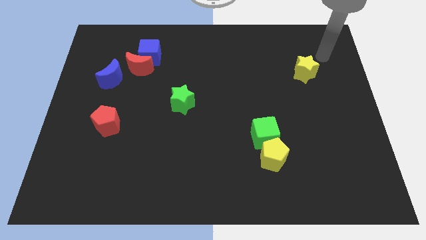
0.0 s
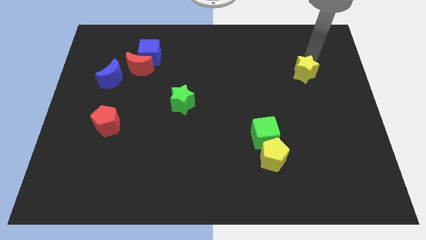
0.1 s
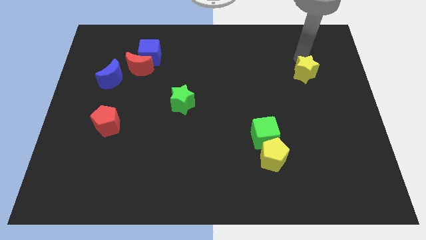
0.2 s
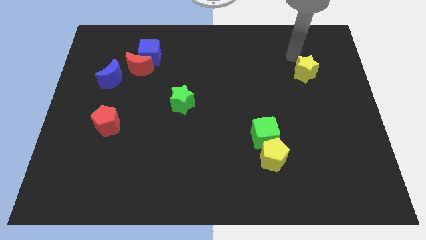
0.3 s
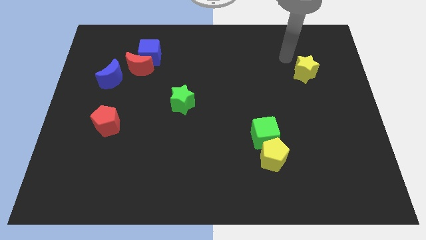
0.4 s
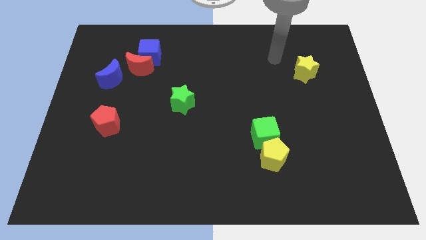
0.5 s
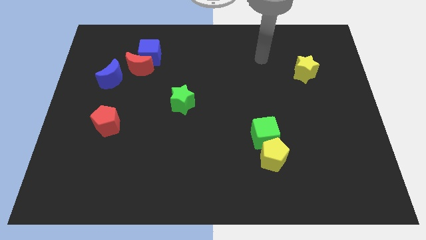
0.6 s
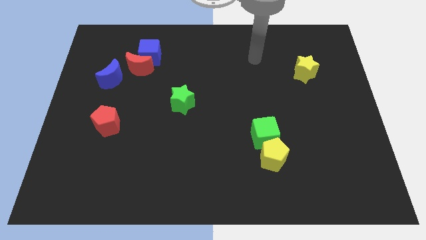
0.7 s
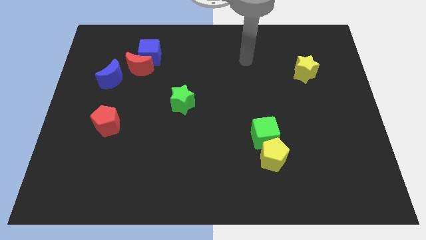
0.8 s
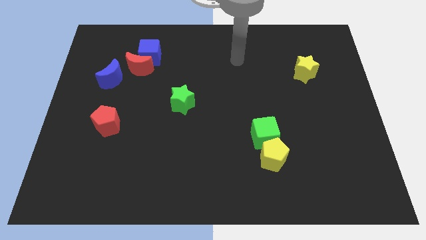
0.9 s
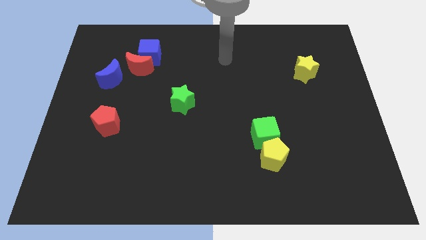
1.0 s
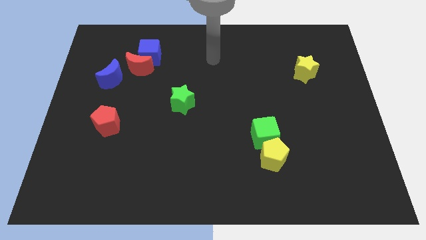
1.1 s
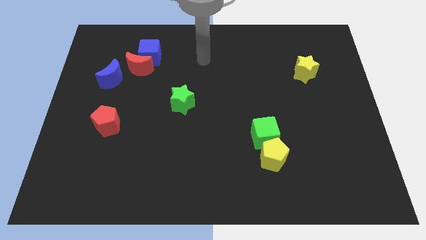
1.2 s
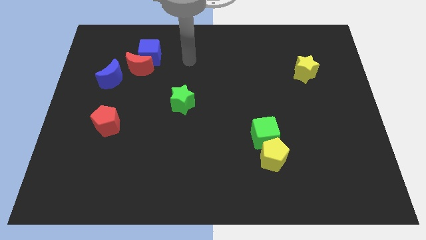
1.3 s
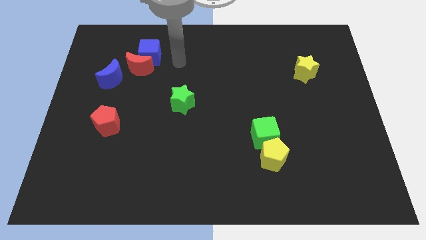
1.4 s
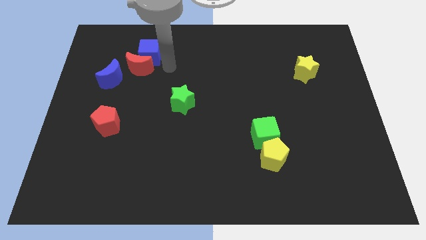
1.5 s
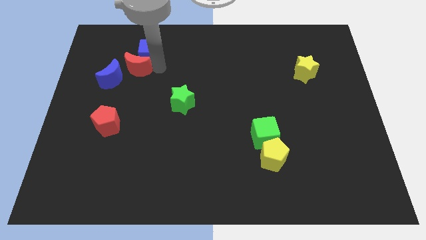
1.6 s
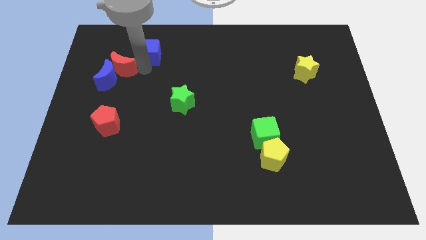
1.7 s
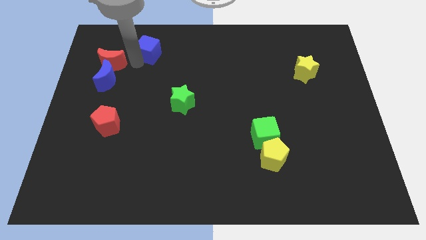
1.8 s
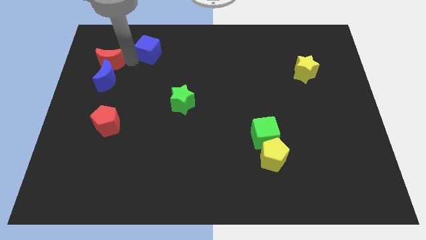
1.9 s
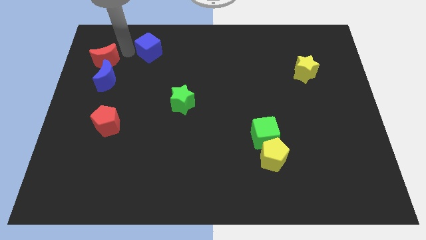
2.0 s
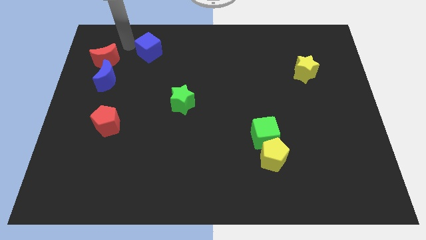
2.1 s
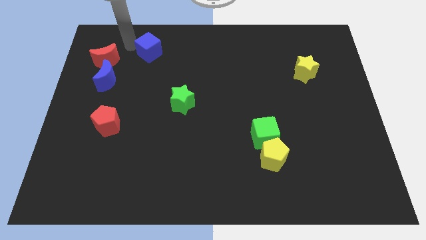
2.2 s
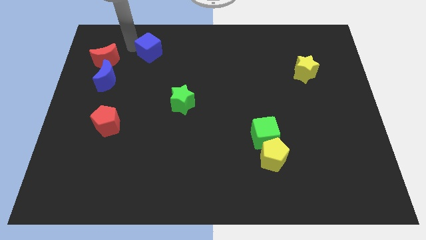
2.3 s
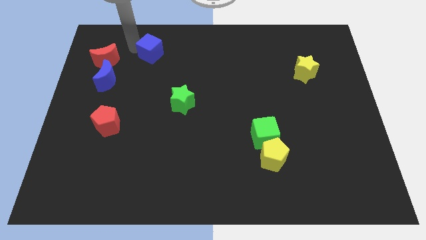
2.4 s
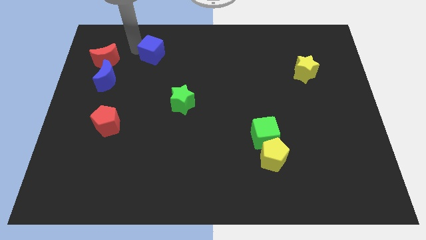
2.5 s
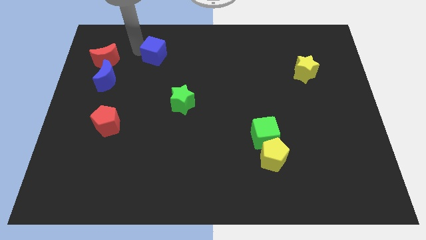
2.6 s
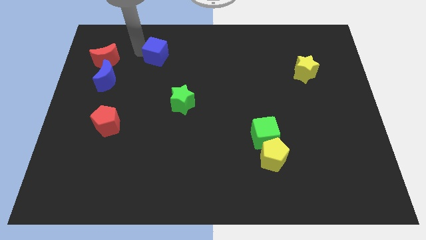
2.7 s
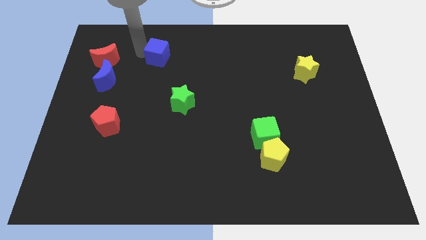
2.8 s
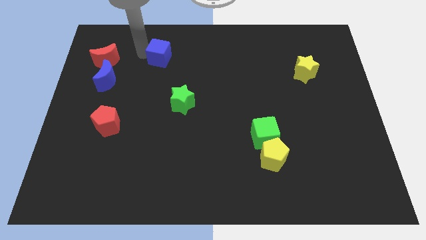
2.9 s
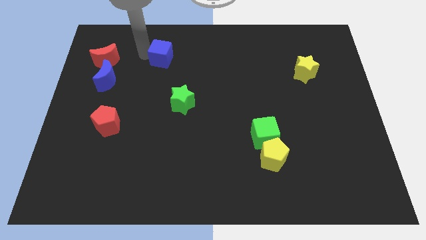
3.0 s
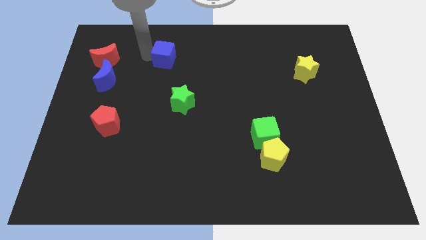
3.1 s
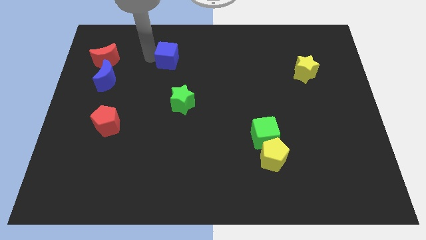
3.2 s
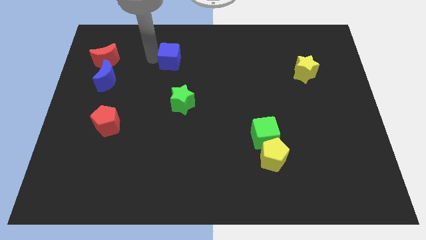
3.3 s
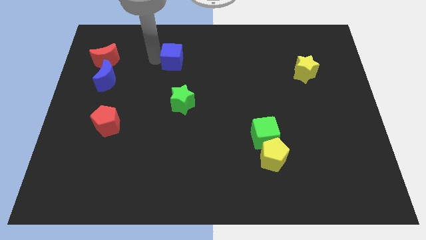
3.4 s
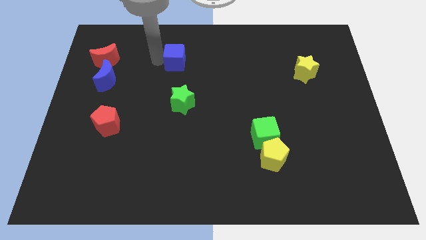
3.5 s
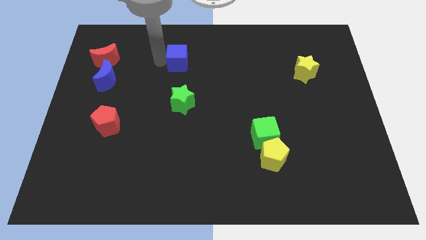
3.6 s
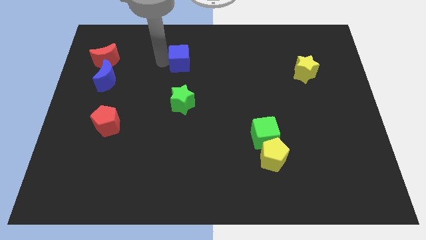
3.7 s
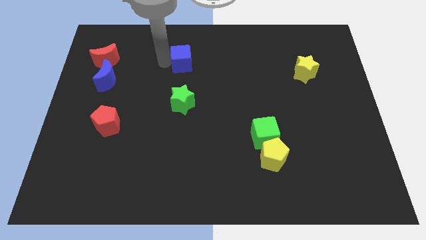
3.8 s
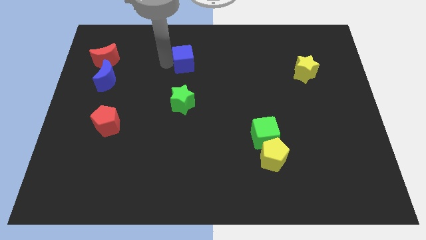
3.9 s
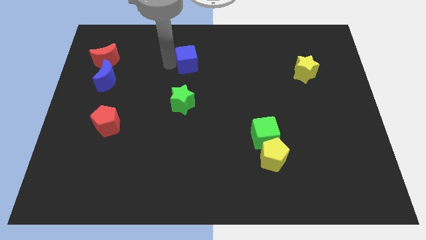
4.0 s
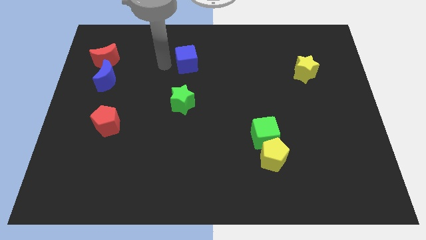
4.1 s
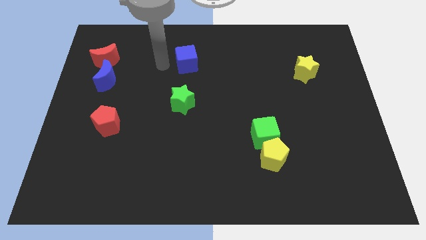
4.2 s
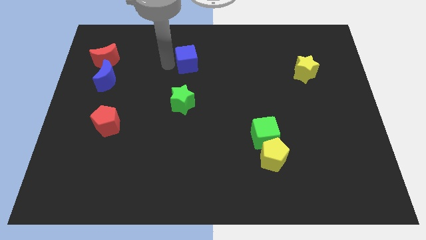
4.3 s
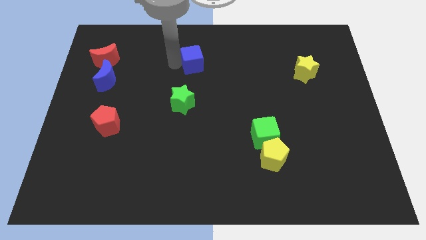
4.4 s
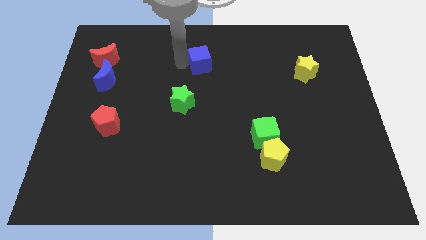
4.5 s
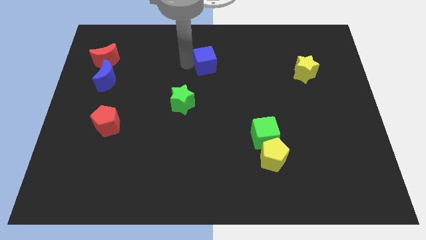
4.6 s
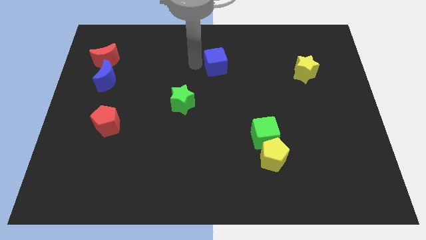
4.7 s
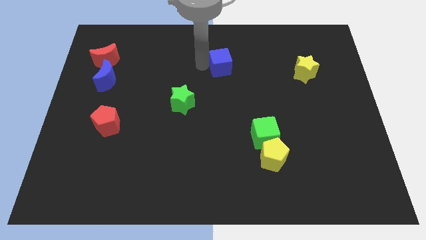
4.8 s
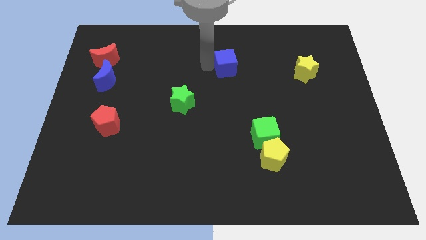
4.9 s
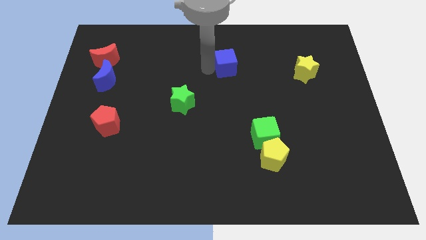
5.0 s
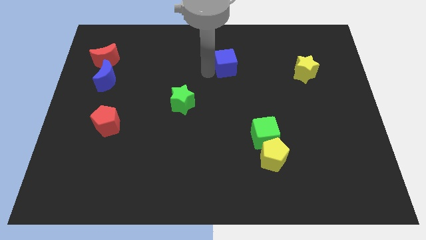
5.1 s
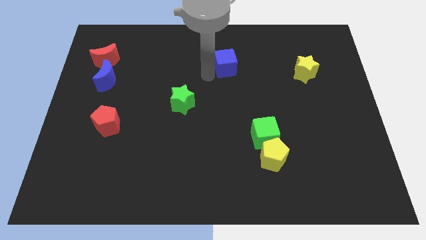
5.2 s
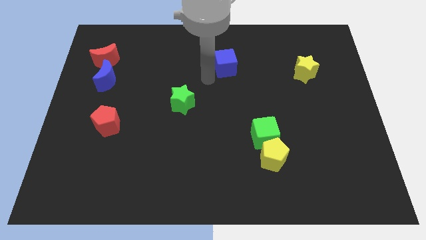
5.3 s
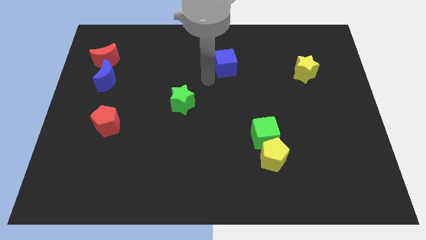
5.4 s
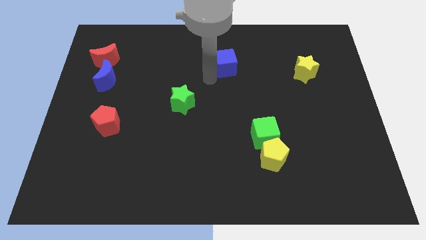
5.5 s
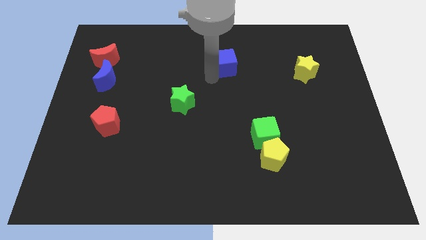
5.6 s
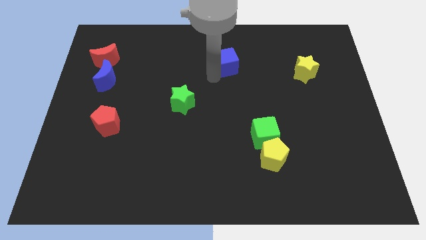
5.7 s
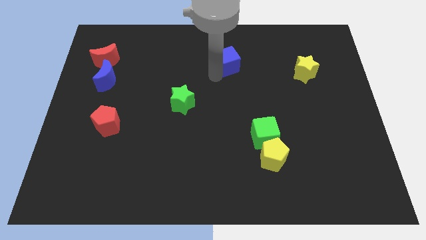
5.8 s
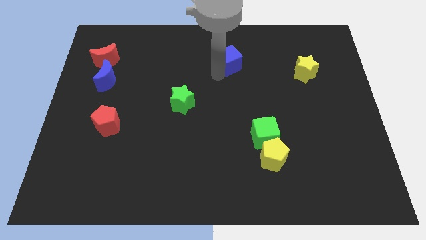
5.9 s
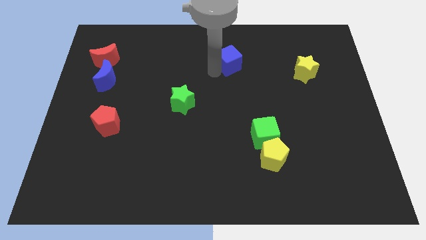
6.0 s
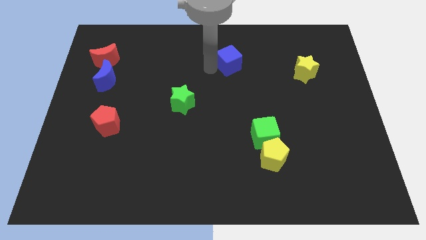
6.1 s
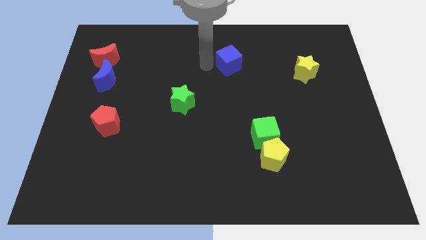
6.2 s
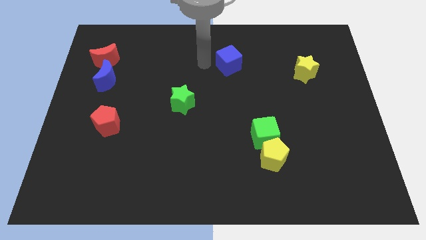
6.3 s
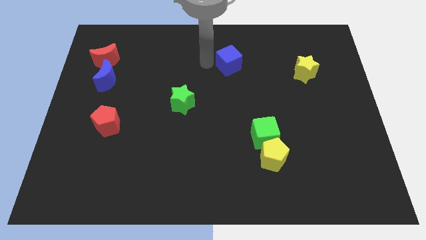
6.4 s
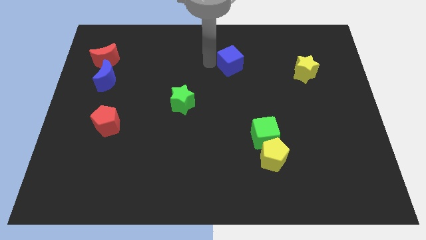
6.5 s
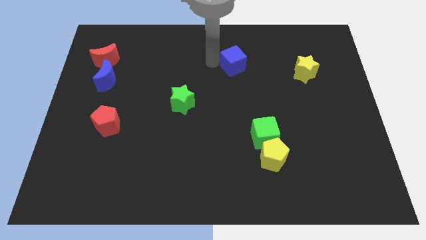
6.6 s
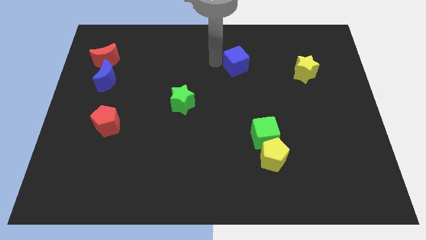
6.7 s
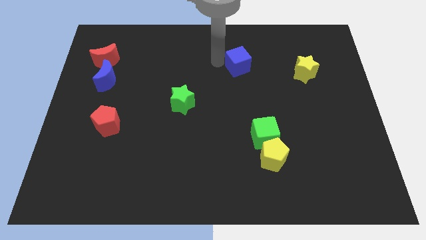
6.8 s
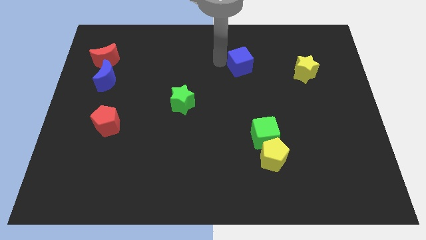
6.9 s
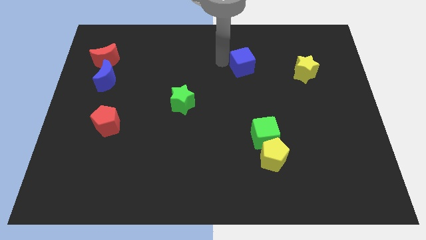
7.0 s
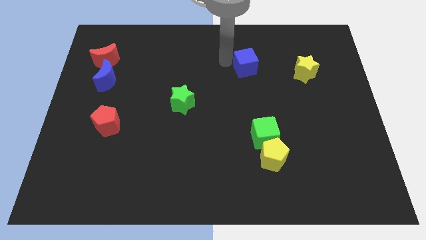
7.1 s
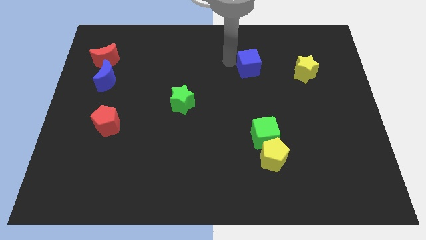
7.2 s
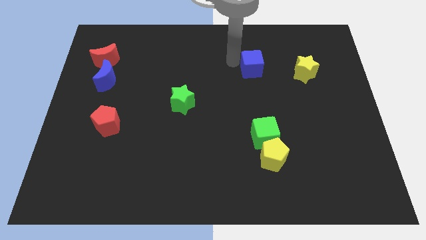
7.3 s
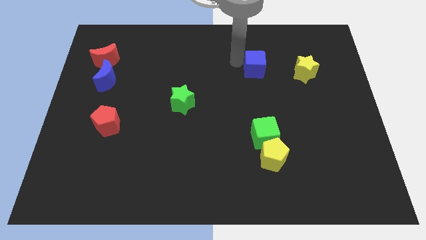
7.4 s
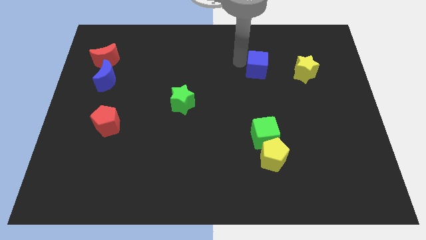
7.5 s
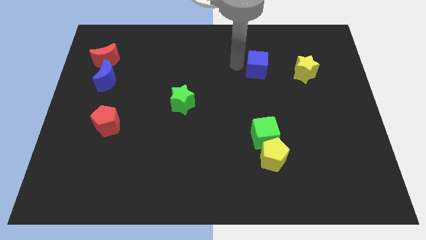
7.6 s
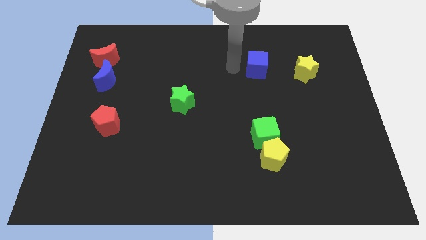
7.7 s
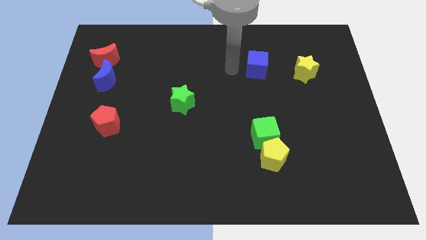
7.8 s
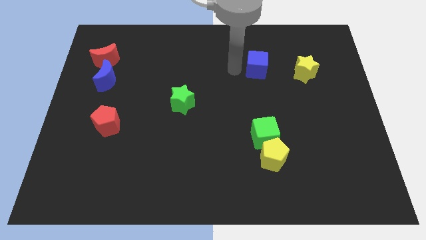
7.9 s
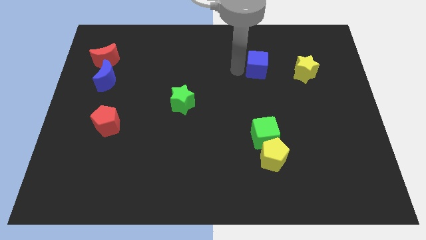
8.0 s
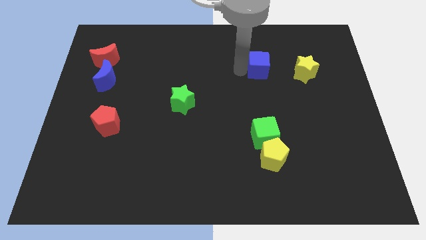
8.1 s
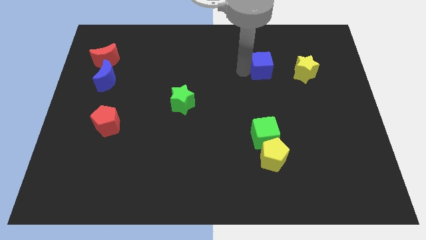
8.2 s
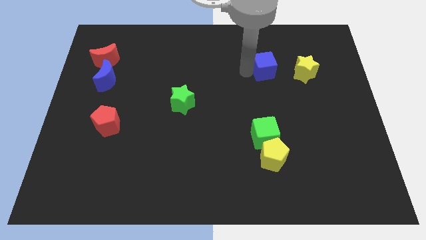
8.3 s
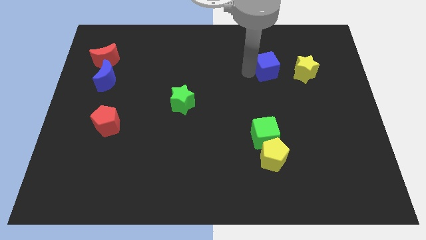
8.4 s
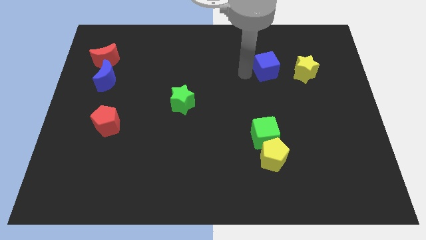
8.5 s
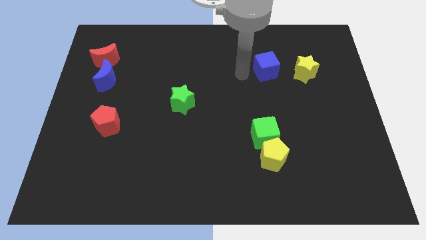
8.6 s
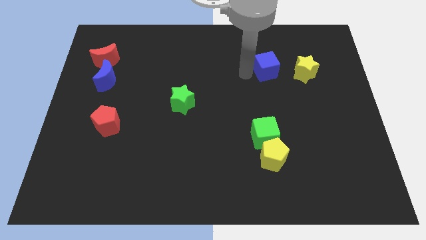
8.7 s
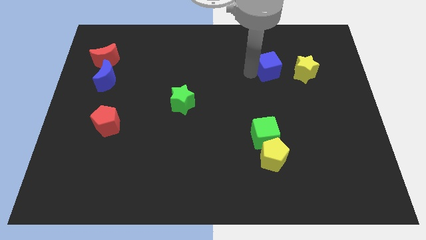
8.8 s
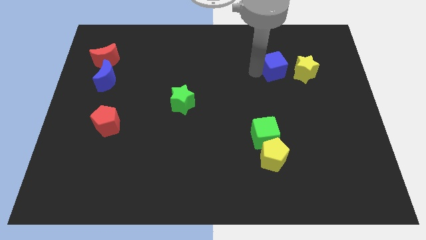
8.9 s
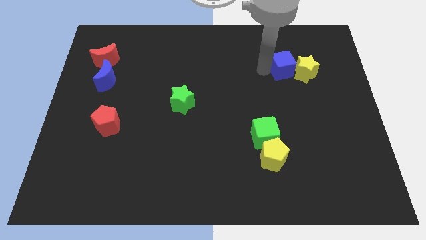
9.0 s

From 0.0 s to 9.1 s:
move the blue cube close to the yellow star
